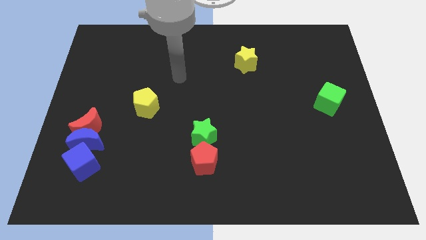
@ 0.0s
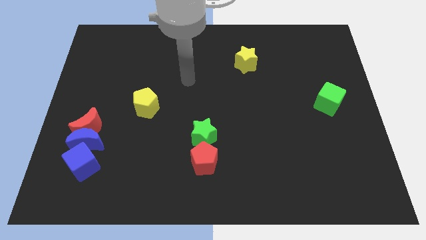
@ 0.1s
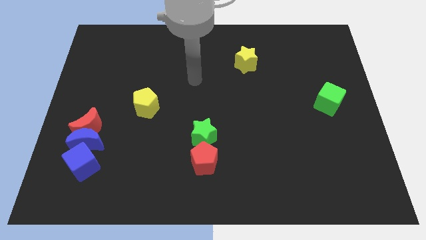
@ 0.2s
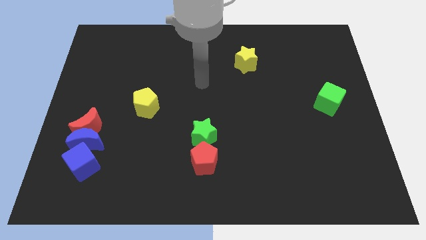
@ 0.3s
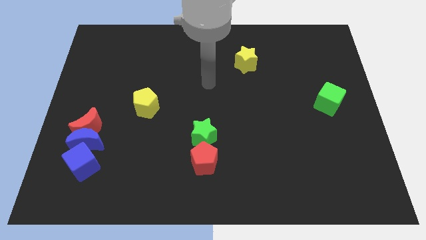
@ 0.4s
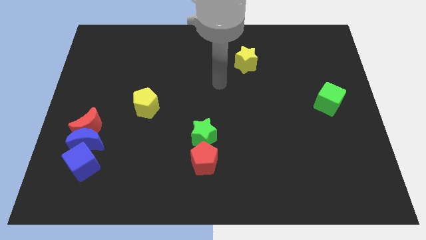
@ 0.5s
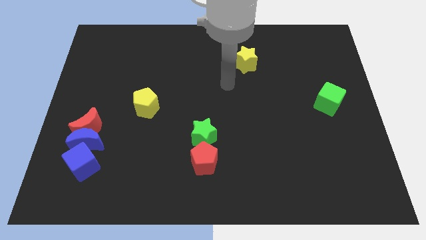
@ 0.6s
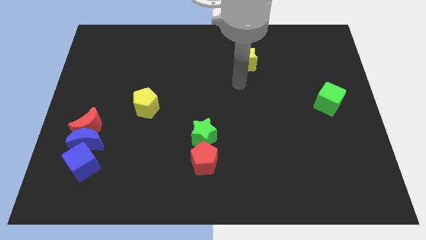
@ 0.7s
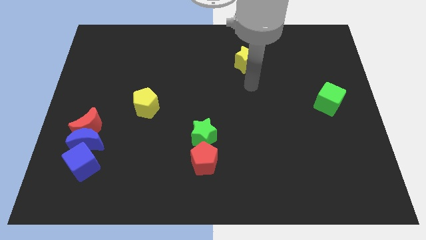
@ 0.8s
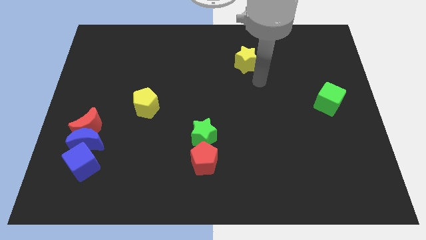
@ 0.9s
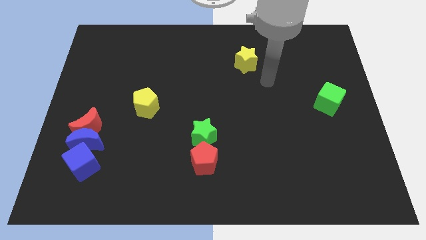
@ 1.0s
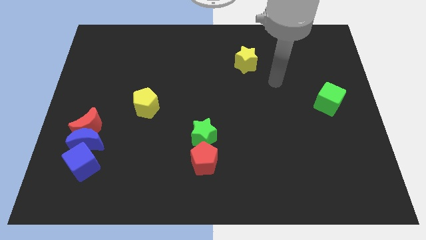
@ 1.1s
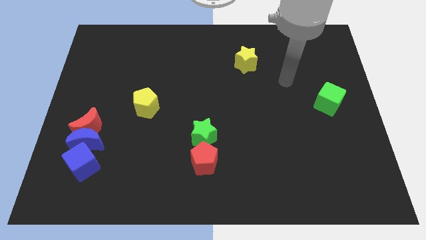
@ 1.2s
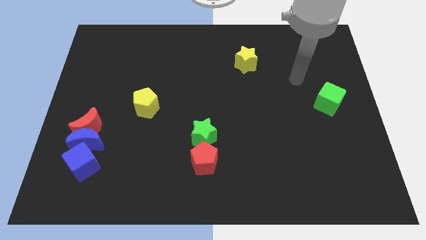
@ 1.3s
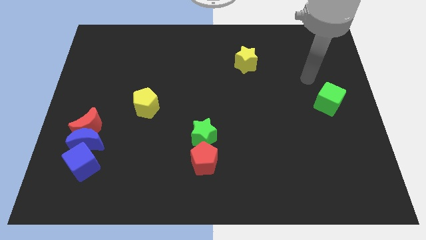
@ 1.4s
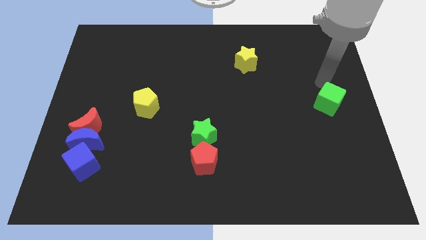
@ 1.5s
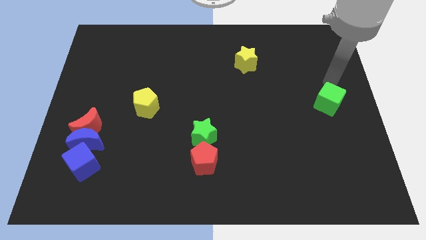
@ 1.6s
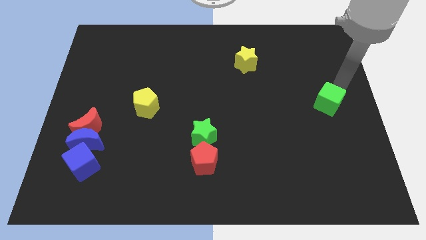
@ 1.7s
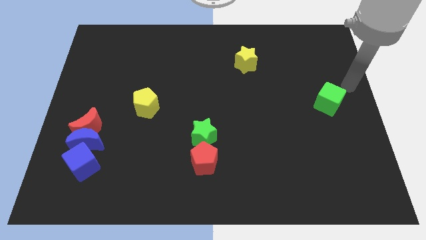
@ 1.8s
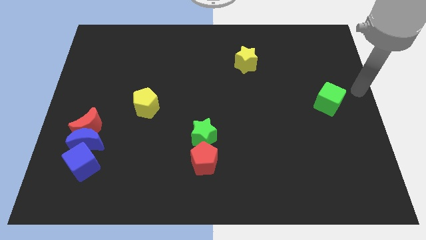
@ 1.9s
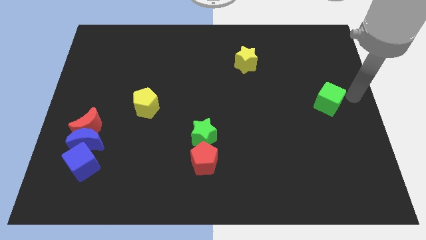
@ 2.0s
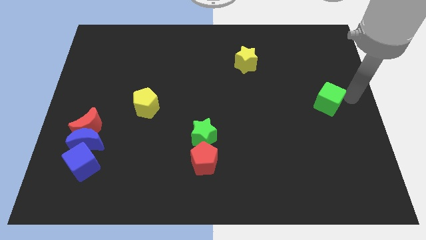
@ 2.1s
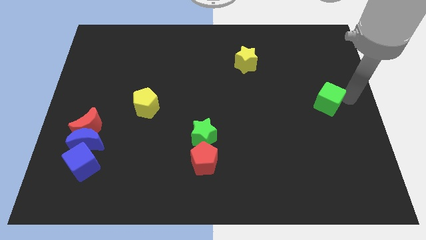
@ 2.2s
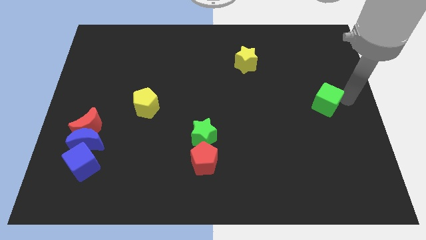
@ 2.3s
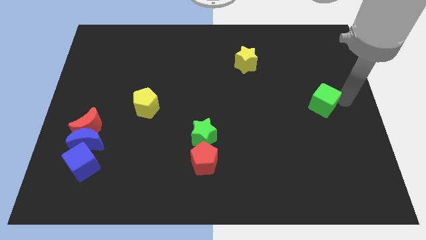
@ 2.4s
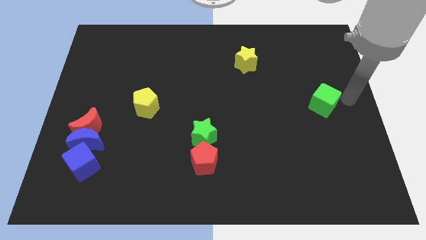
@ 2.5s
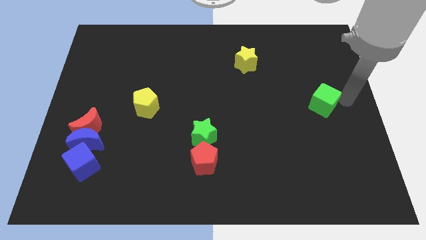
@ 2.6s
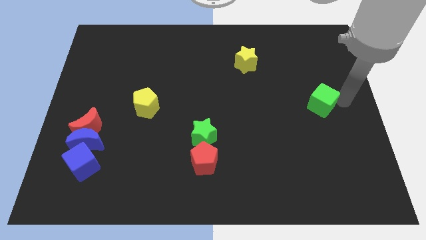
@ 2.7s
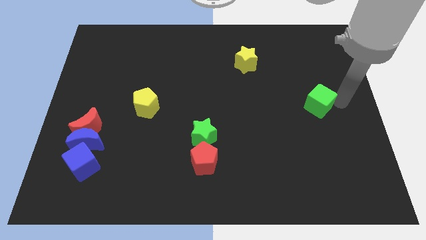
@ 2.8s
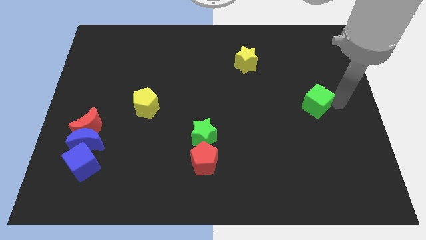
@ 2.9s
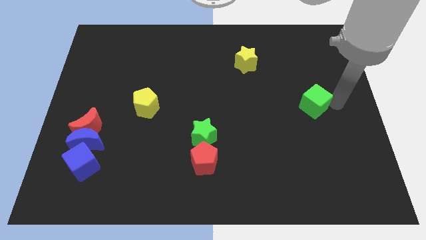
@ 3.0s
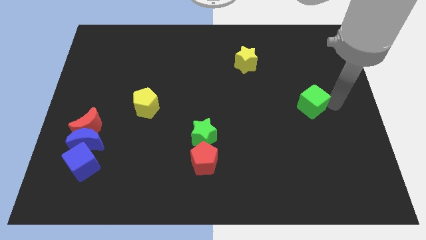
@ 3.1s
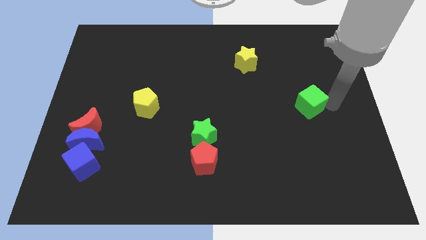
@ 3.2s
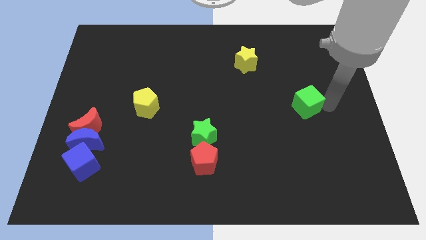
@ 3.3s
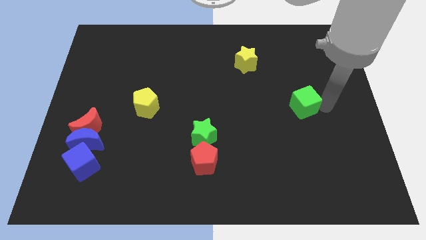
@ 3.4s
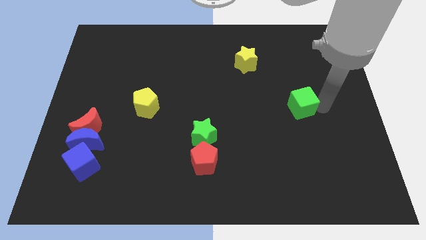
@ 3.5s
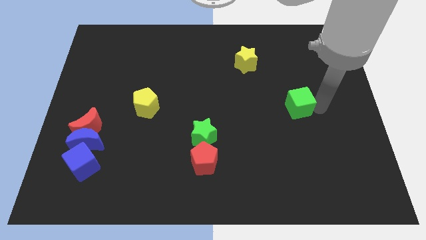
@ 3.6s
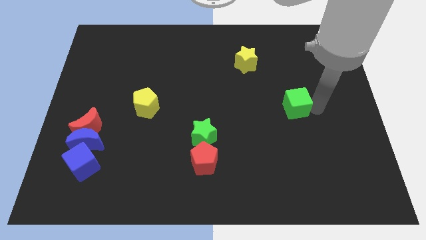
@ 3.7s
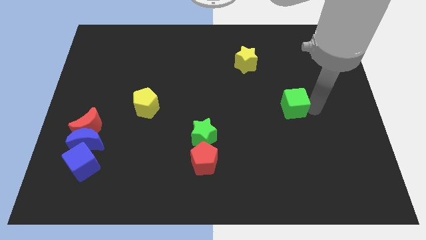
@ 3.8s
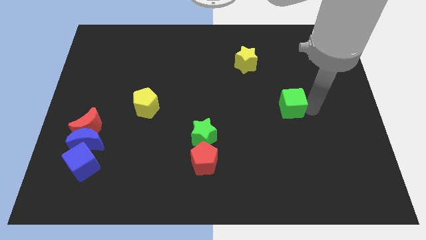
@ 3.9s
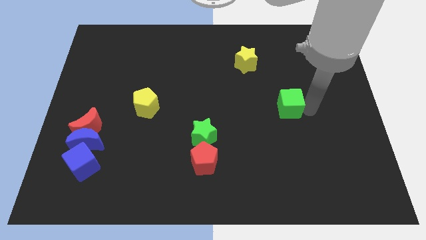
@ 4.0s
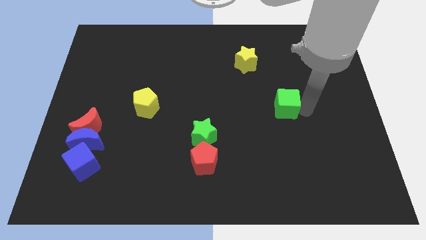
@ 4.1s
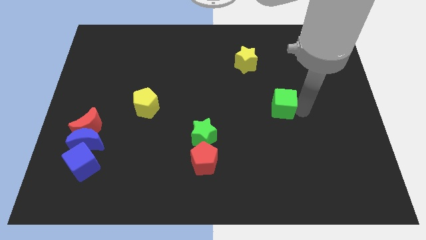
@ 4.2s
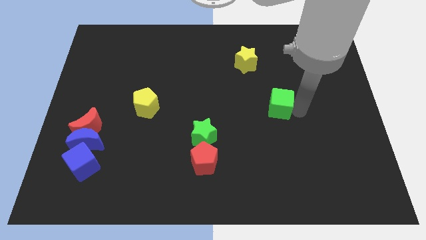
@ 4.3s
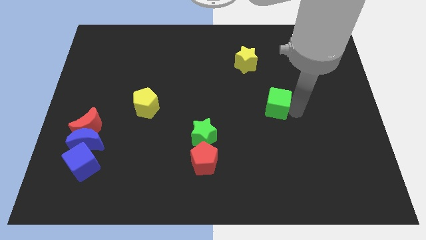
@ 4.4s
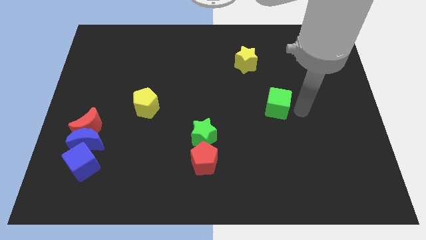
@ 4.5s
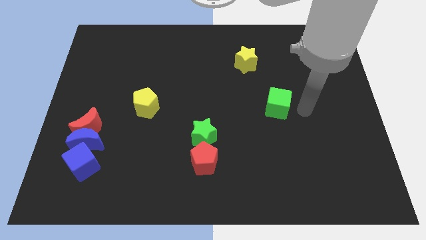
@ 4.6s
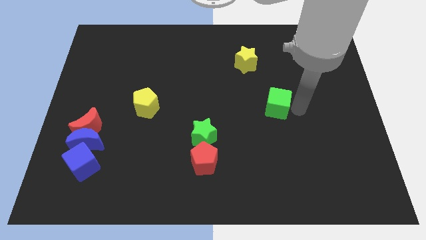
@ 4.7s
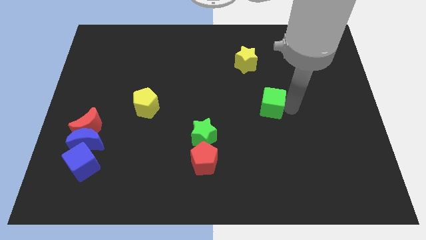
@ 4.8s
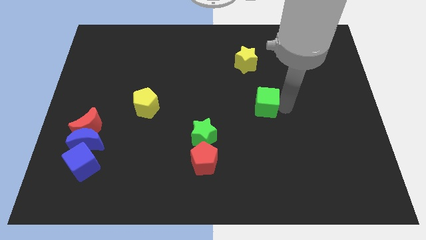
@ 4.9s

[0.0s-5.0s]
push the green cube to the center
